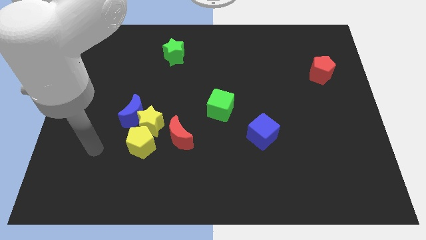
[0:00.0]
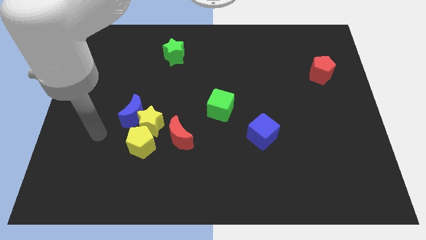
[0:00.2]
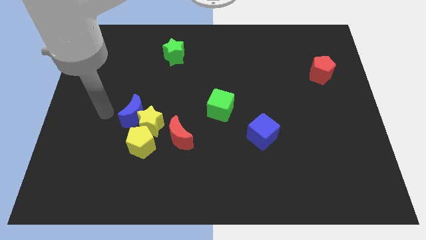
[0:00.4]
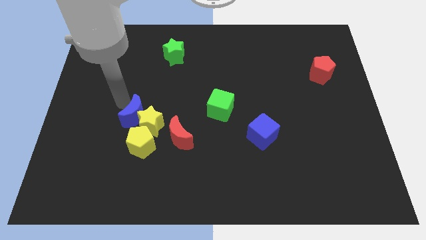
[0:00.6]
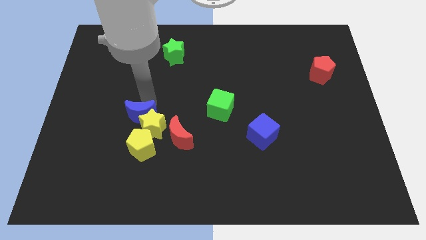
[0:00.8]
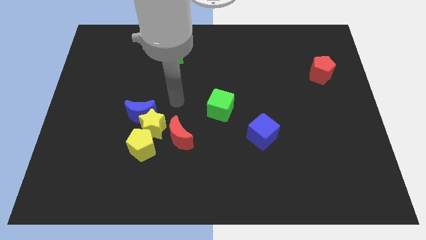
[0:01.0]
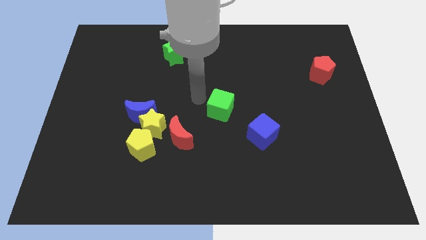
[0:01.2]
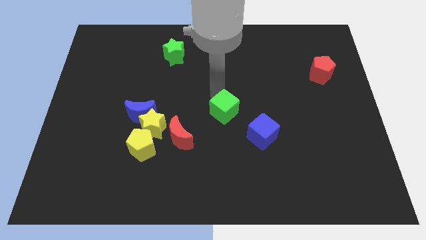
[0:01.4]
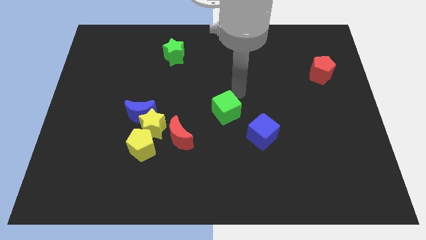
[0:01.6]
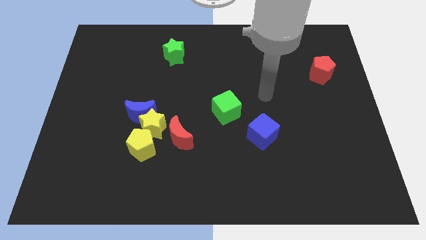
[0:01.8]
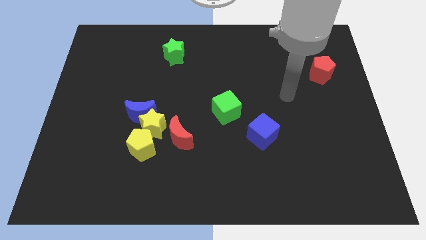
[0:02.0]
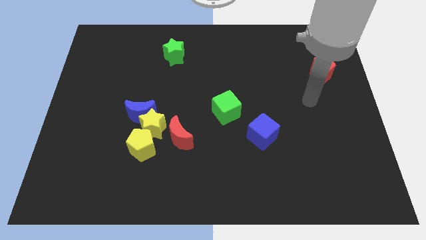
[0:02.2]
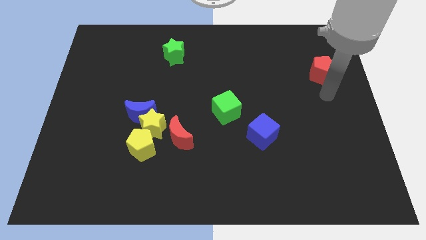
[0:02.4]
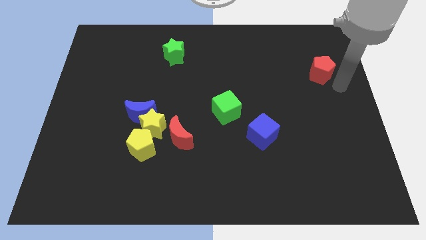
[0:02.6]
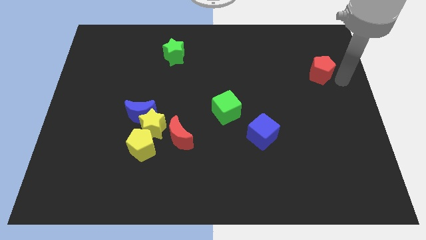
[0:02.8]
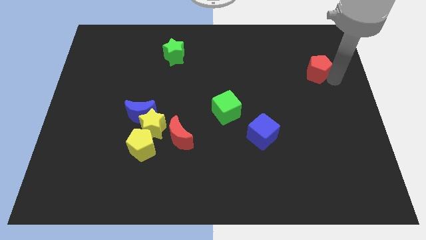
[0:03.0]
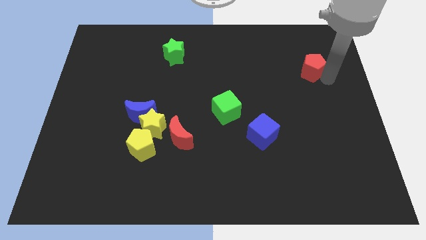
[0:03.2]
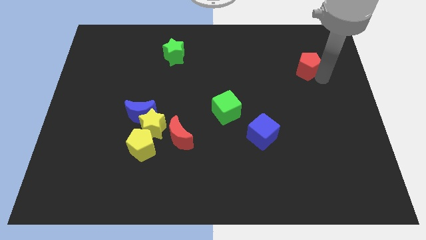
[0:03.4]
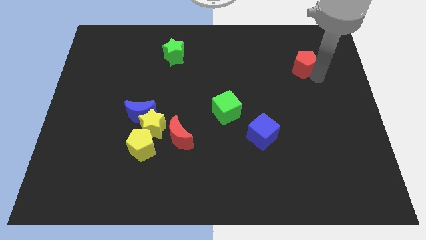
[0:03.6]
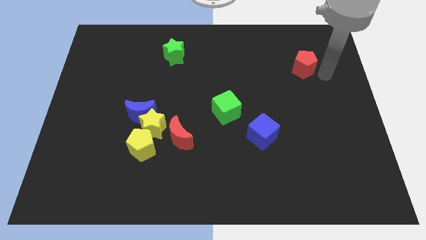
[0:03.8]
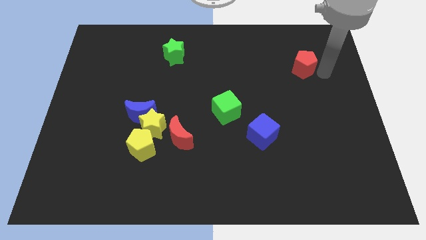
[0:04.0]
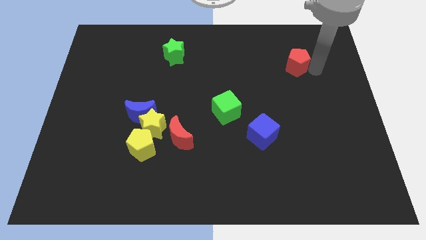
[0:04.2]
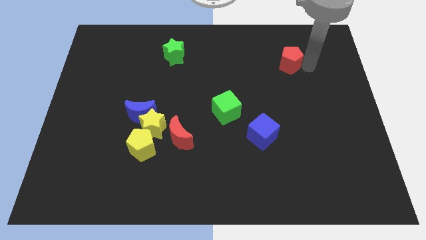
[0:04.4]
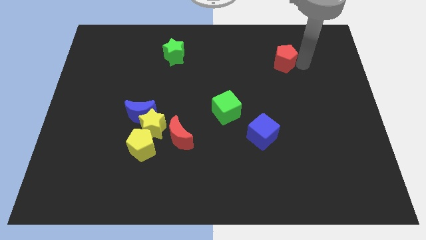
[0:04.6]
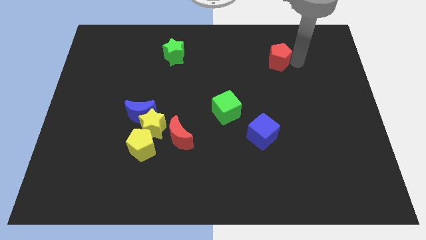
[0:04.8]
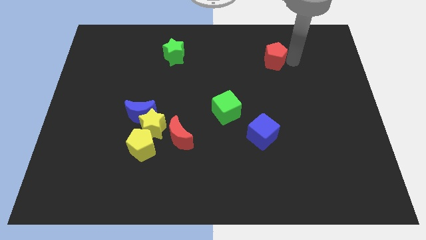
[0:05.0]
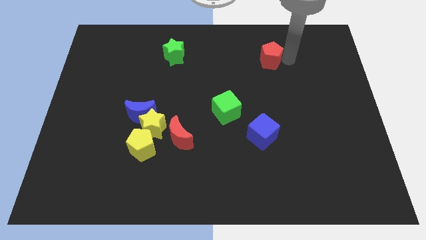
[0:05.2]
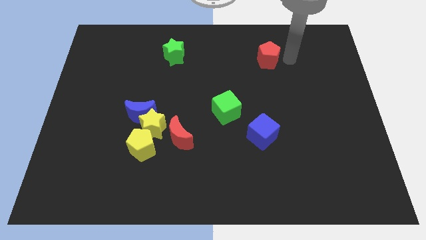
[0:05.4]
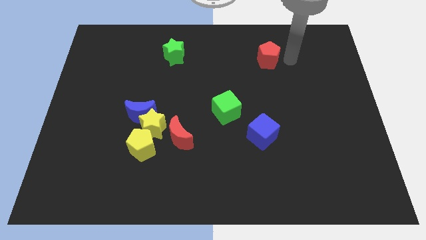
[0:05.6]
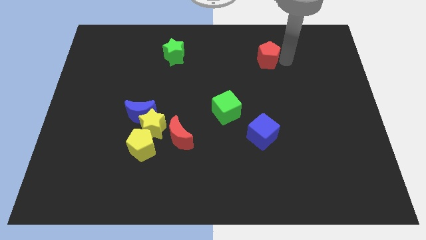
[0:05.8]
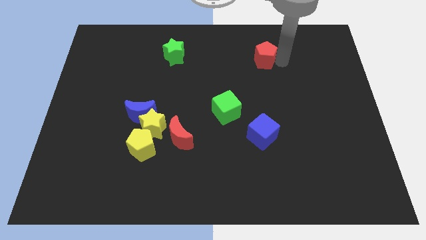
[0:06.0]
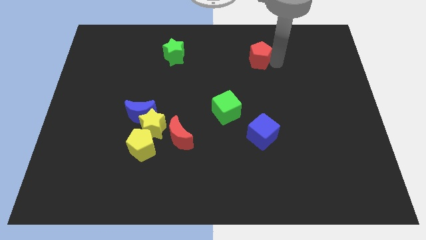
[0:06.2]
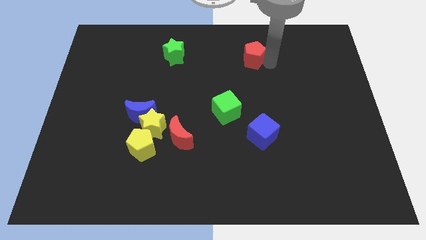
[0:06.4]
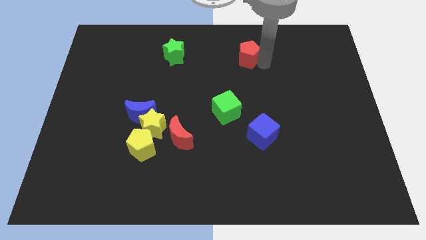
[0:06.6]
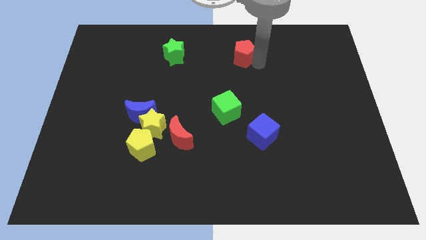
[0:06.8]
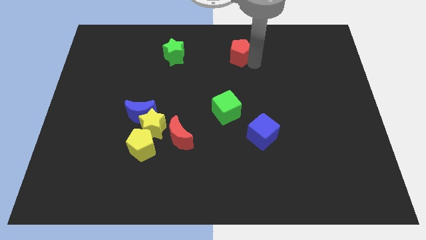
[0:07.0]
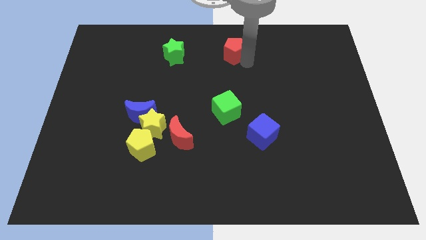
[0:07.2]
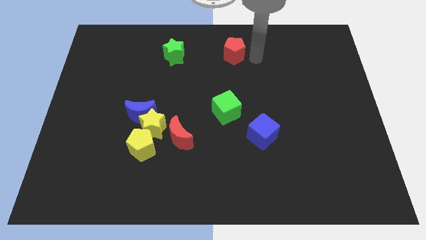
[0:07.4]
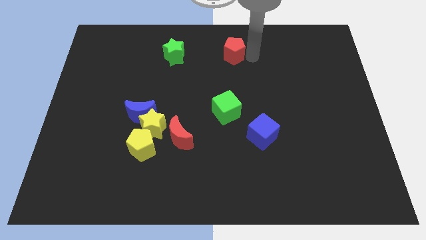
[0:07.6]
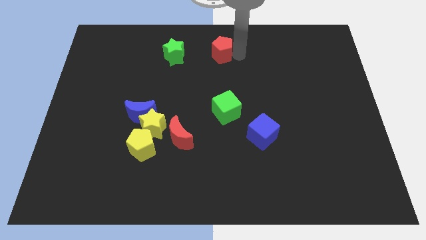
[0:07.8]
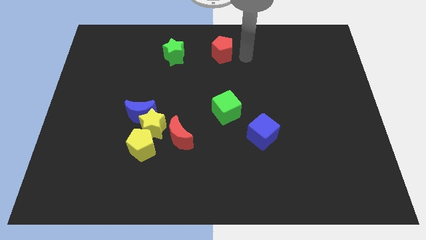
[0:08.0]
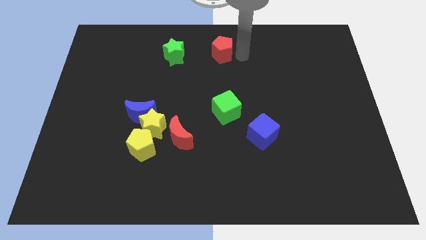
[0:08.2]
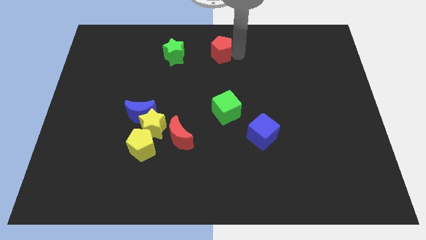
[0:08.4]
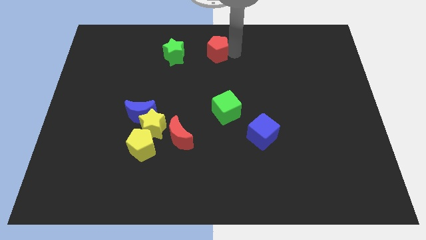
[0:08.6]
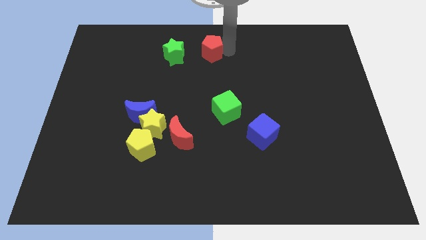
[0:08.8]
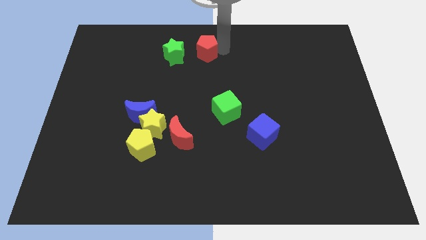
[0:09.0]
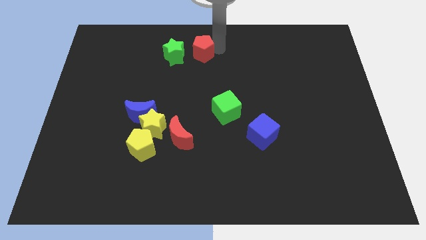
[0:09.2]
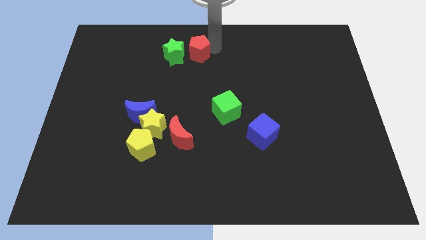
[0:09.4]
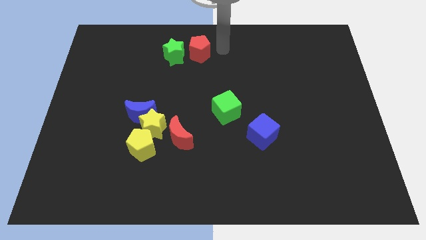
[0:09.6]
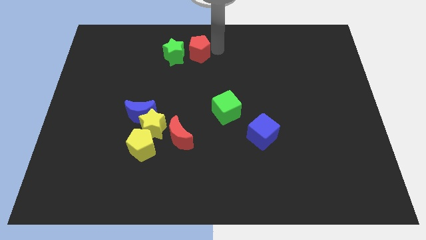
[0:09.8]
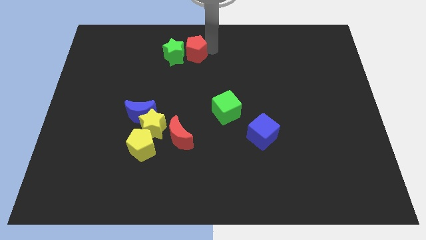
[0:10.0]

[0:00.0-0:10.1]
push the red pentagon close to the green star

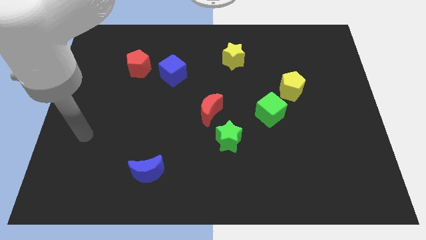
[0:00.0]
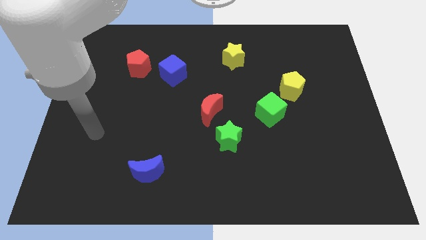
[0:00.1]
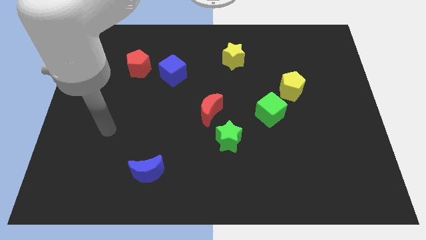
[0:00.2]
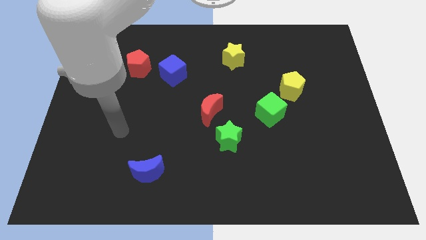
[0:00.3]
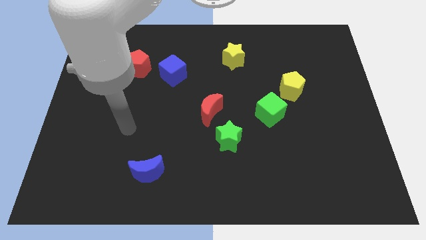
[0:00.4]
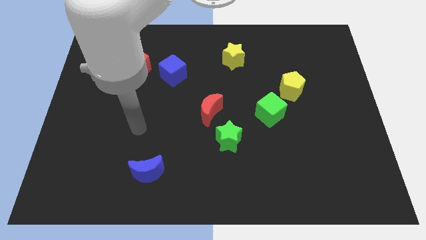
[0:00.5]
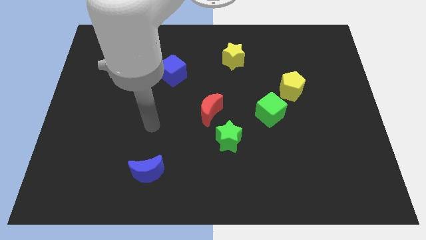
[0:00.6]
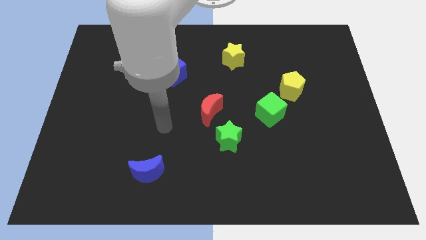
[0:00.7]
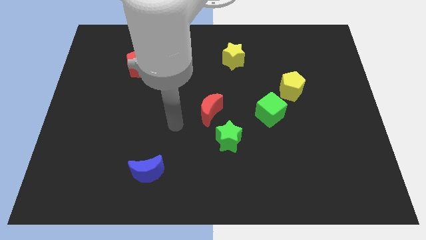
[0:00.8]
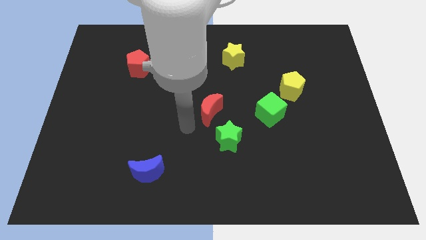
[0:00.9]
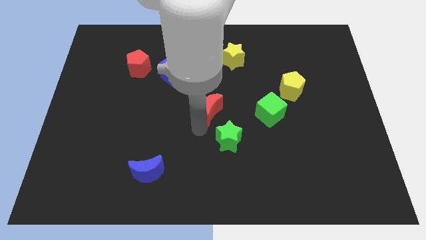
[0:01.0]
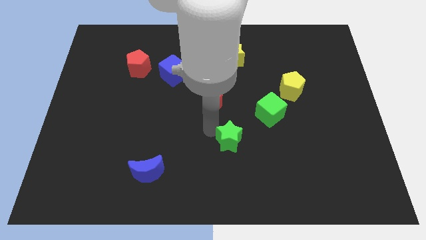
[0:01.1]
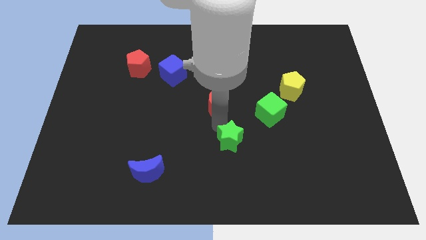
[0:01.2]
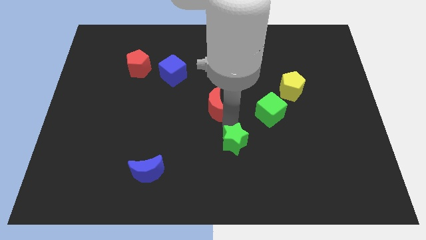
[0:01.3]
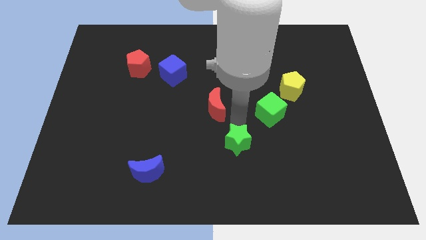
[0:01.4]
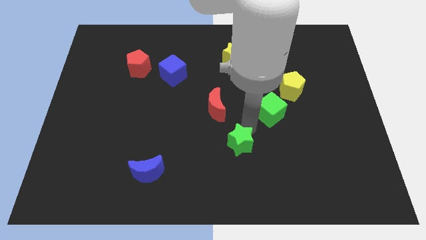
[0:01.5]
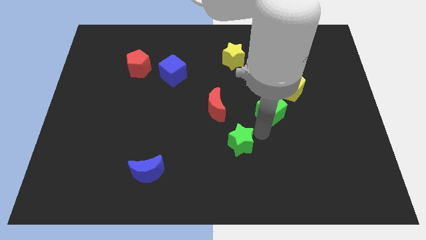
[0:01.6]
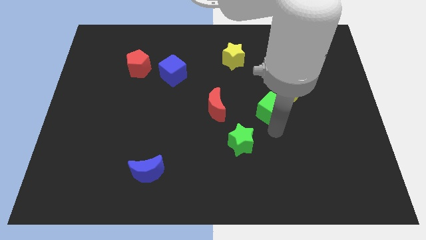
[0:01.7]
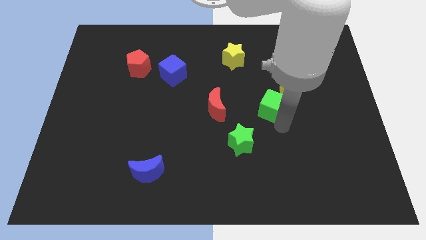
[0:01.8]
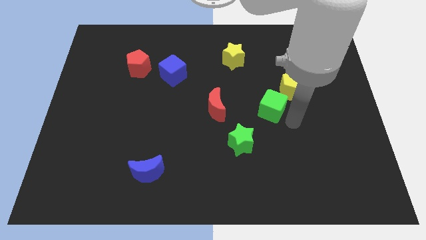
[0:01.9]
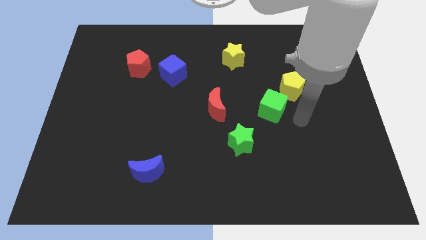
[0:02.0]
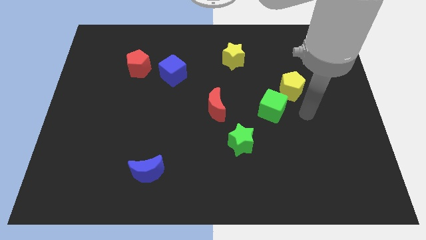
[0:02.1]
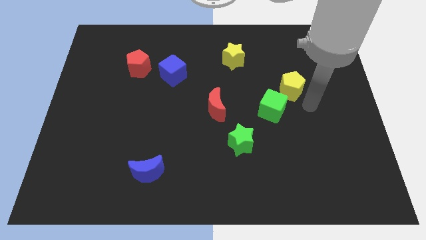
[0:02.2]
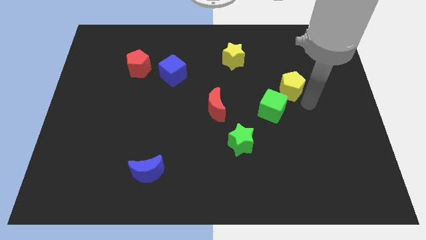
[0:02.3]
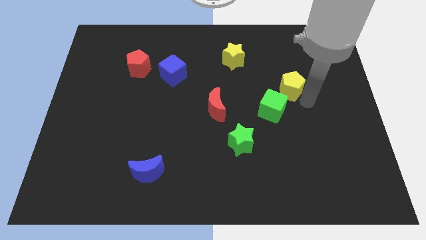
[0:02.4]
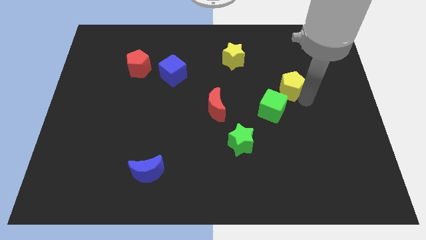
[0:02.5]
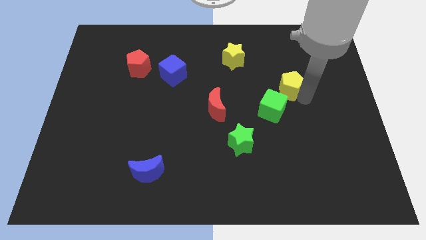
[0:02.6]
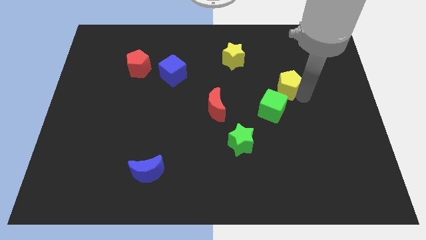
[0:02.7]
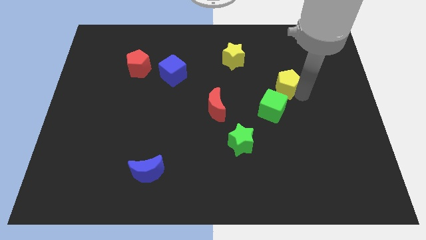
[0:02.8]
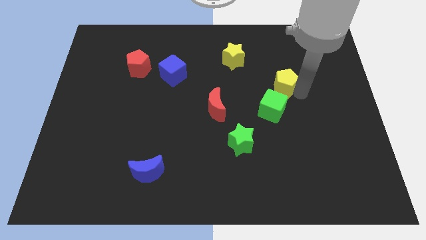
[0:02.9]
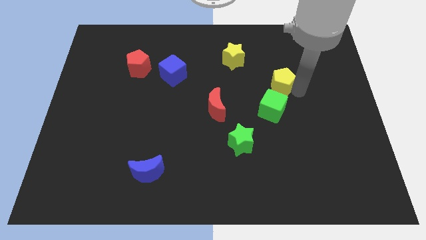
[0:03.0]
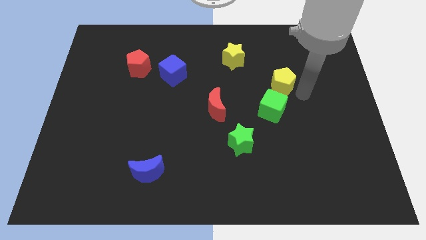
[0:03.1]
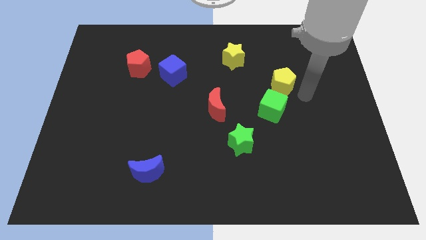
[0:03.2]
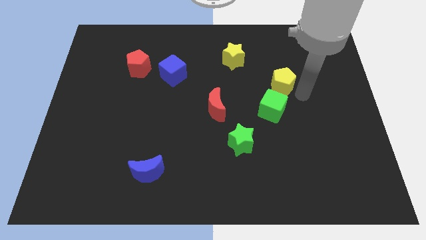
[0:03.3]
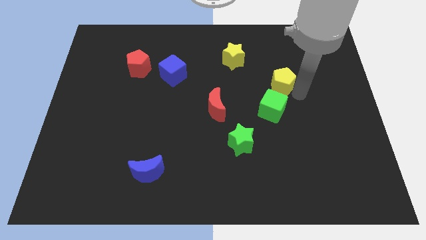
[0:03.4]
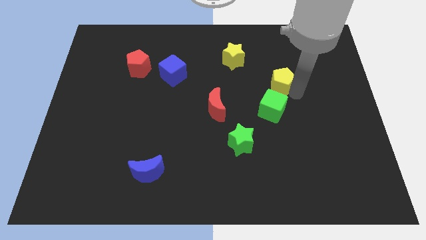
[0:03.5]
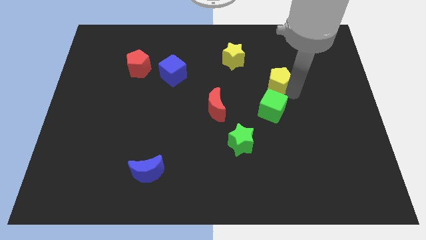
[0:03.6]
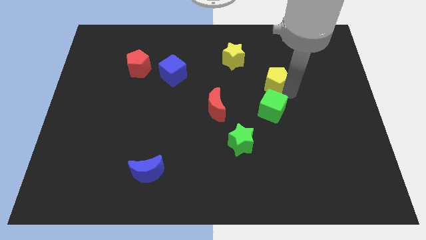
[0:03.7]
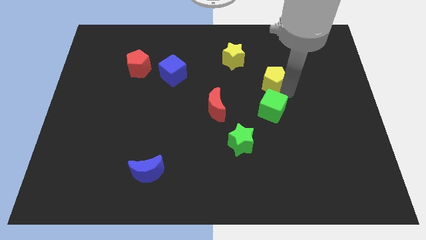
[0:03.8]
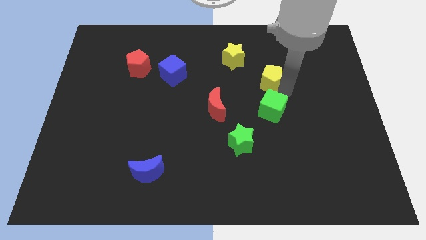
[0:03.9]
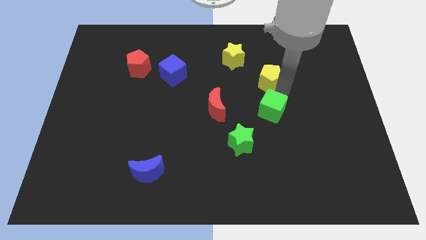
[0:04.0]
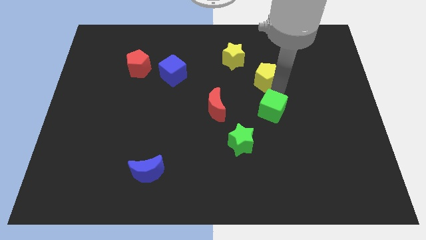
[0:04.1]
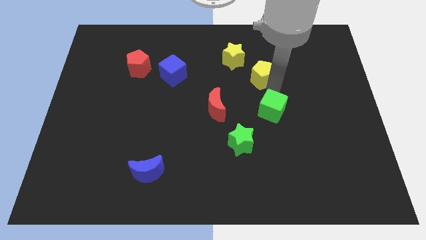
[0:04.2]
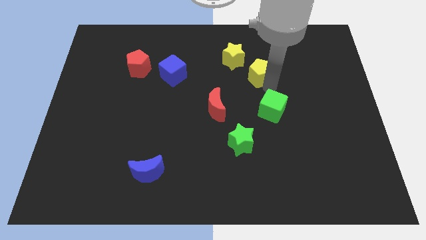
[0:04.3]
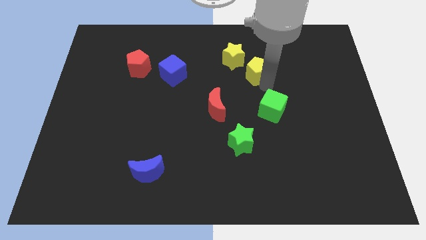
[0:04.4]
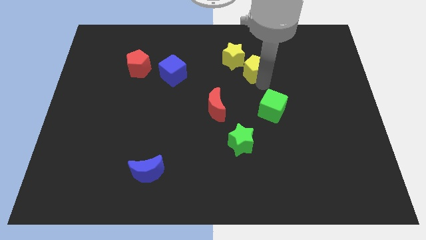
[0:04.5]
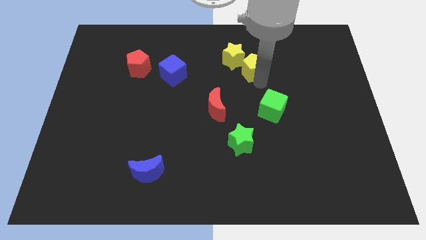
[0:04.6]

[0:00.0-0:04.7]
slide the yellow pentagon to the yellow star
